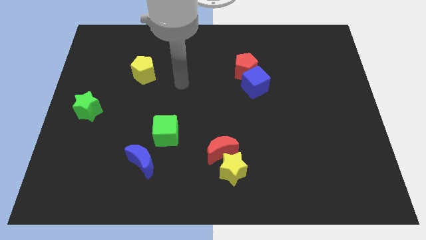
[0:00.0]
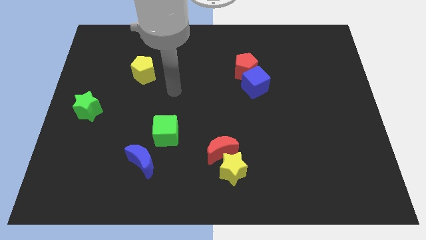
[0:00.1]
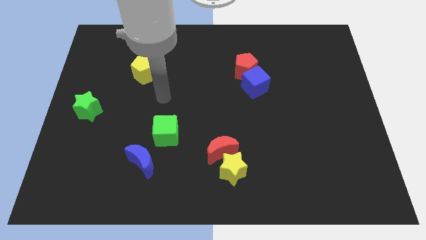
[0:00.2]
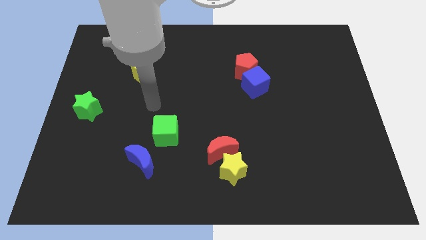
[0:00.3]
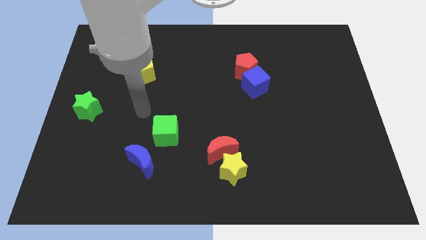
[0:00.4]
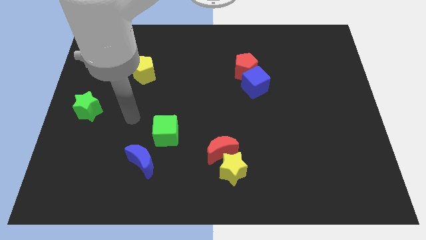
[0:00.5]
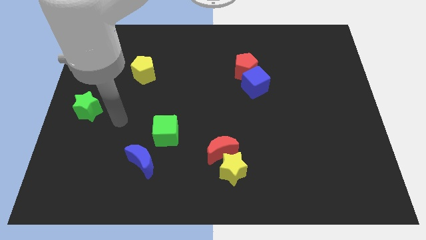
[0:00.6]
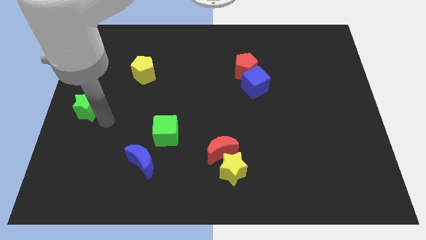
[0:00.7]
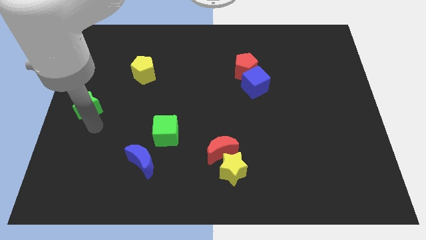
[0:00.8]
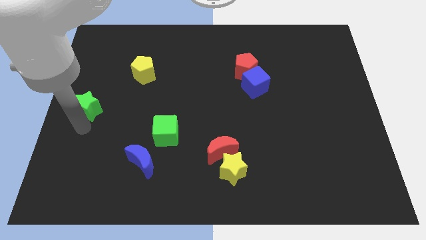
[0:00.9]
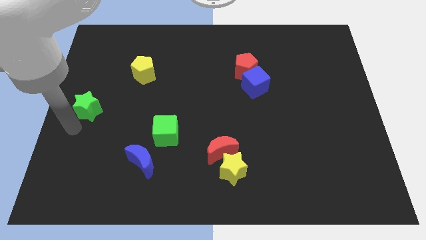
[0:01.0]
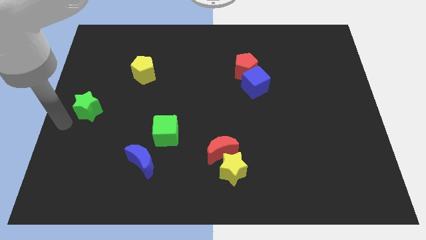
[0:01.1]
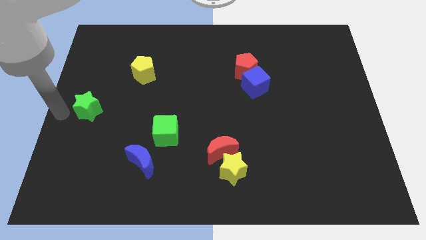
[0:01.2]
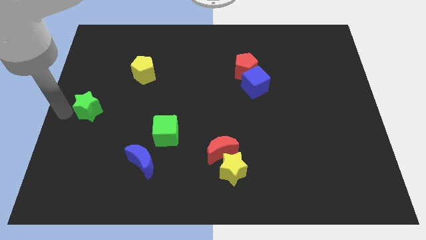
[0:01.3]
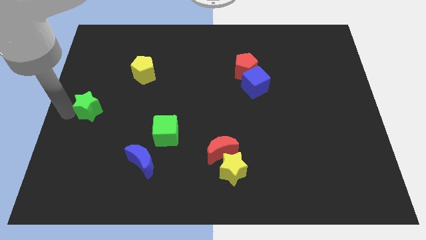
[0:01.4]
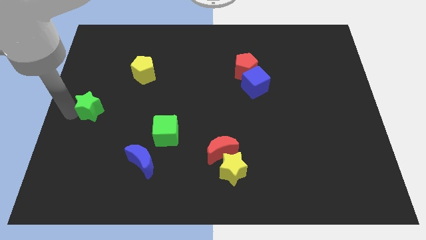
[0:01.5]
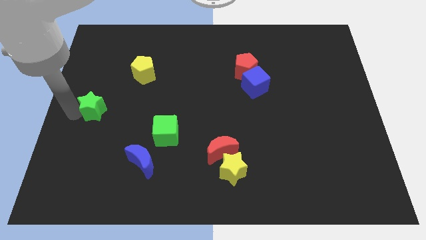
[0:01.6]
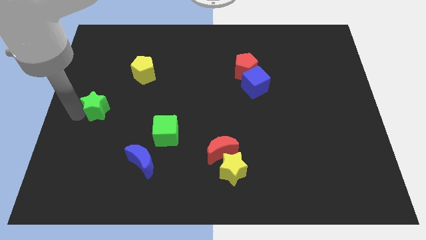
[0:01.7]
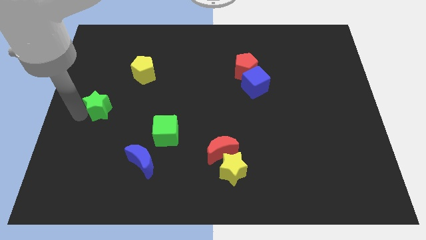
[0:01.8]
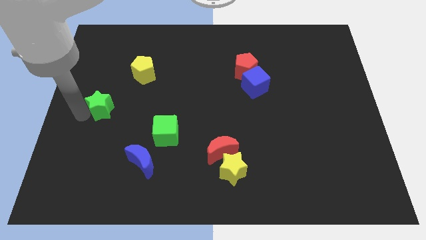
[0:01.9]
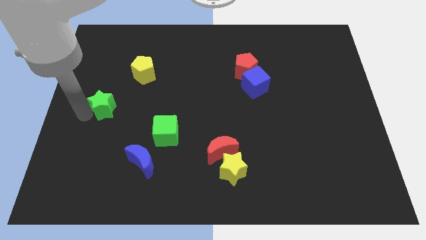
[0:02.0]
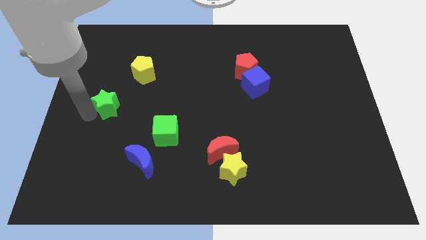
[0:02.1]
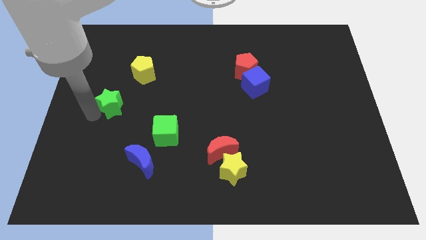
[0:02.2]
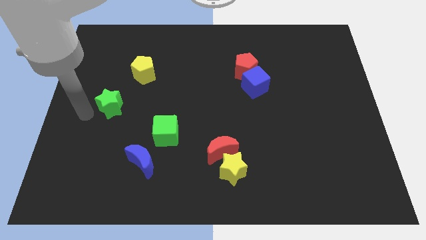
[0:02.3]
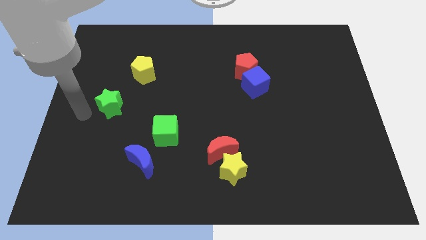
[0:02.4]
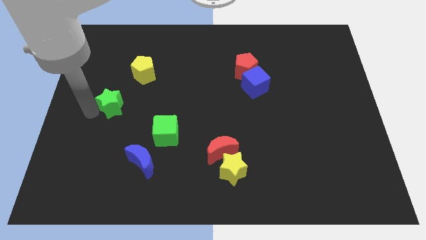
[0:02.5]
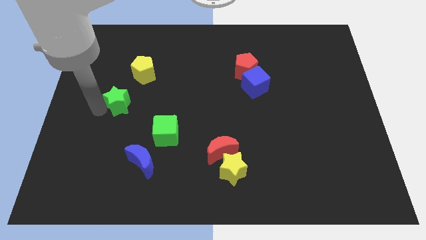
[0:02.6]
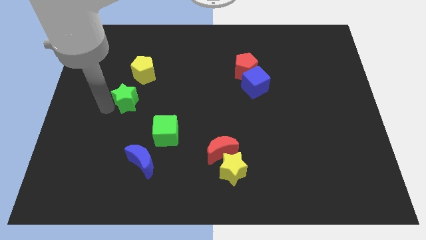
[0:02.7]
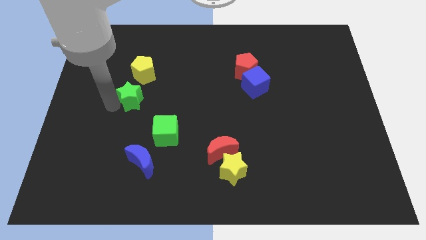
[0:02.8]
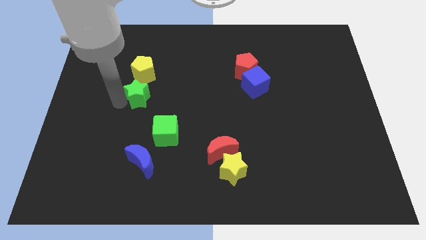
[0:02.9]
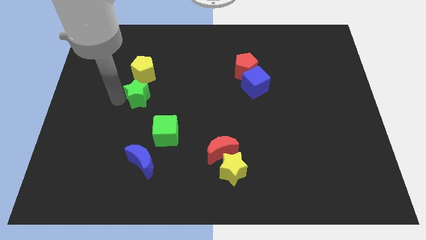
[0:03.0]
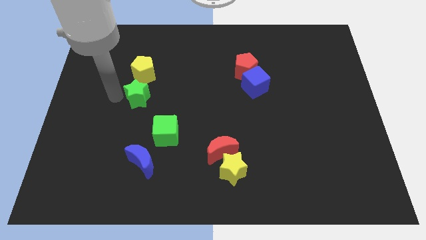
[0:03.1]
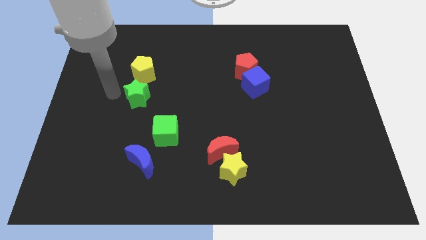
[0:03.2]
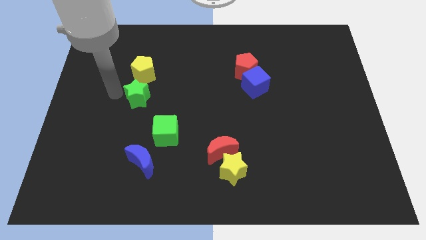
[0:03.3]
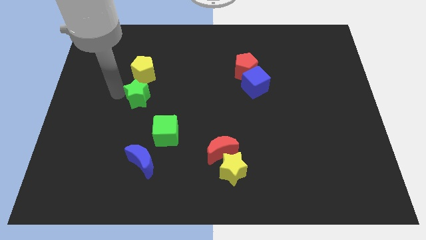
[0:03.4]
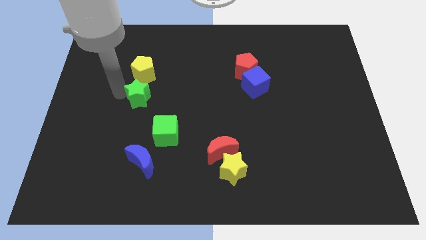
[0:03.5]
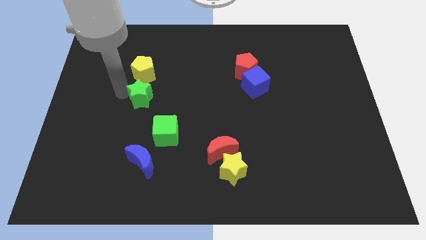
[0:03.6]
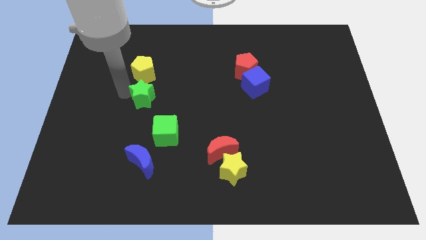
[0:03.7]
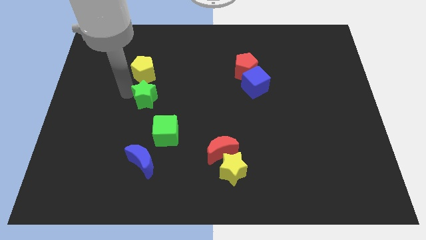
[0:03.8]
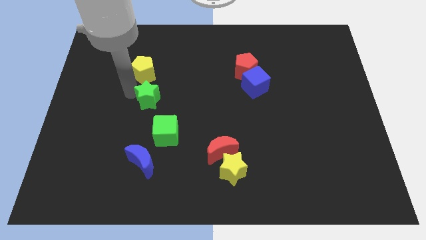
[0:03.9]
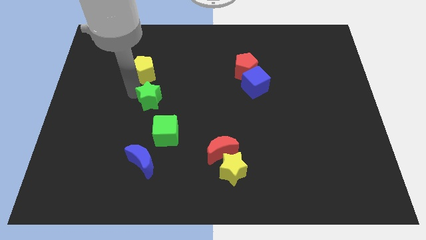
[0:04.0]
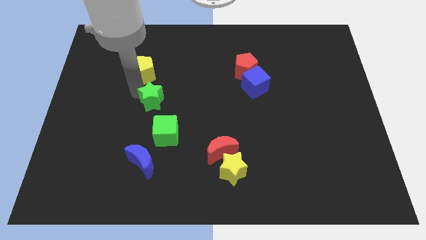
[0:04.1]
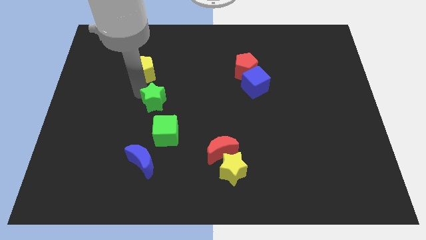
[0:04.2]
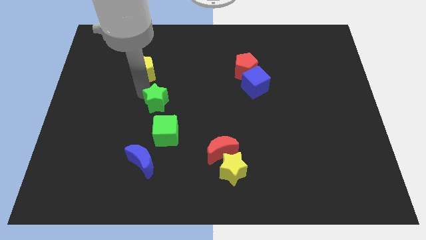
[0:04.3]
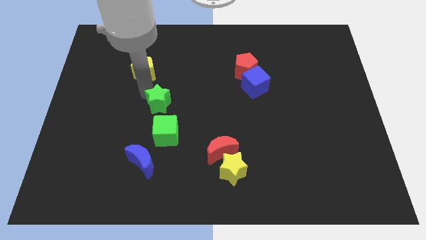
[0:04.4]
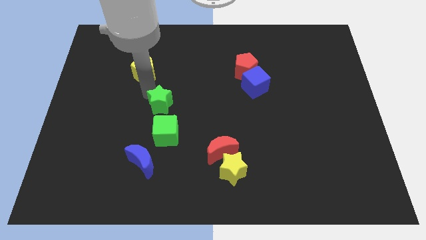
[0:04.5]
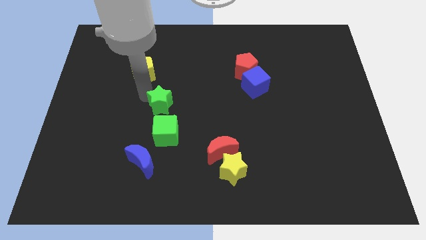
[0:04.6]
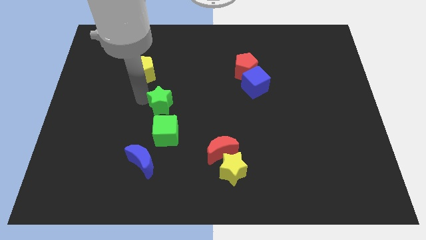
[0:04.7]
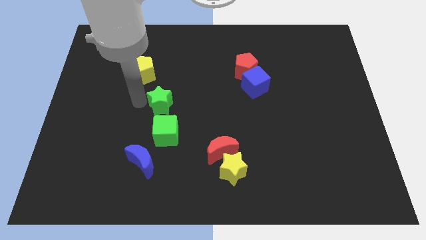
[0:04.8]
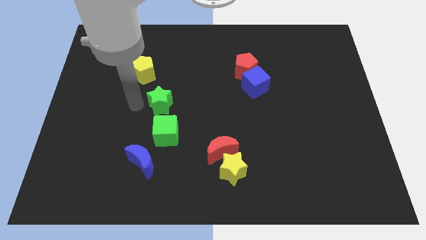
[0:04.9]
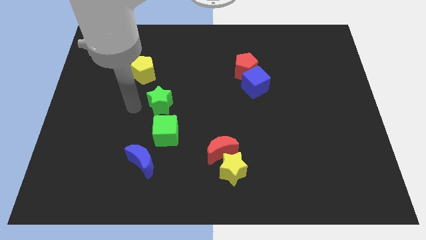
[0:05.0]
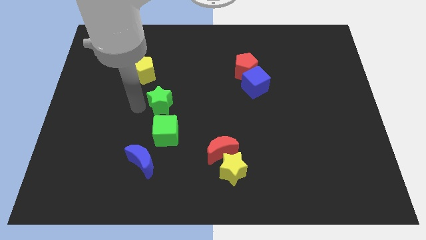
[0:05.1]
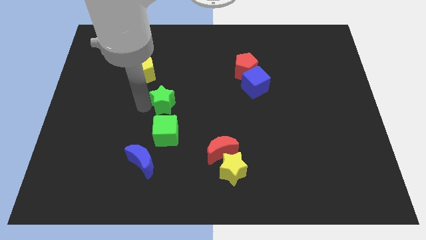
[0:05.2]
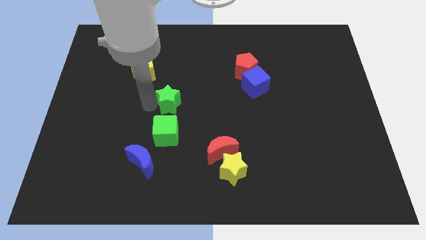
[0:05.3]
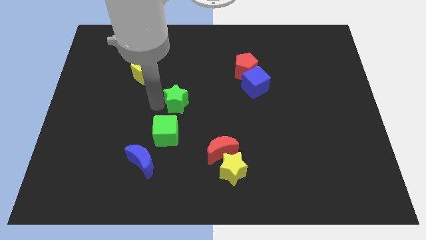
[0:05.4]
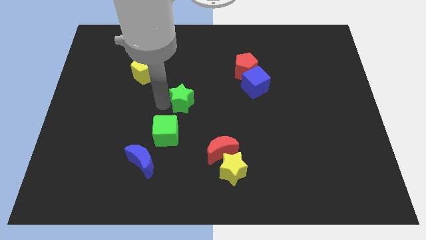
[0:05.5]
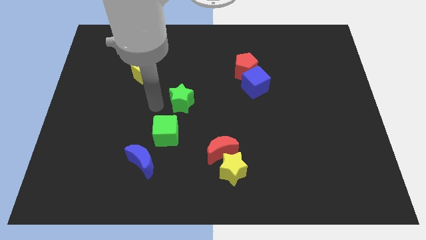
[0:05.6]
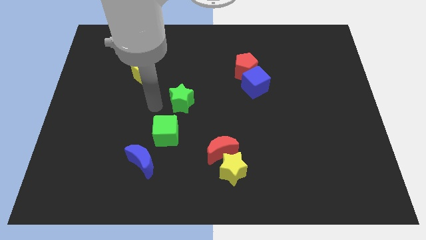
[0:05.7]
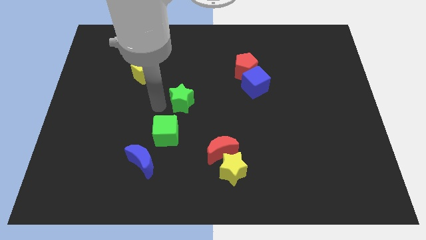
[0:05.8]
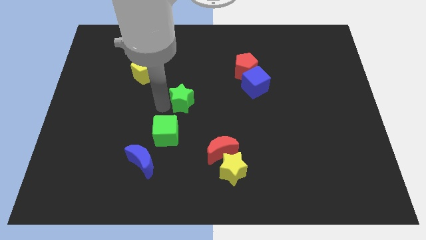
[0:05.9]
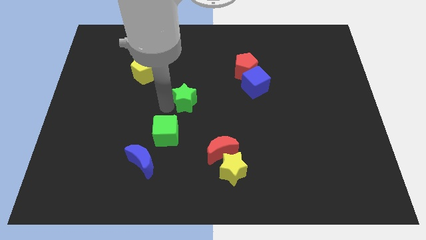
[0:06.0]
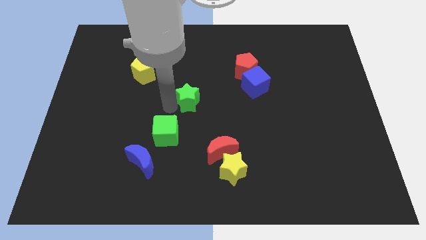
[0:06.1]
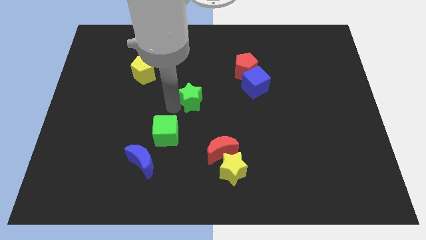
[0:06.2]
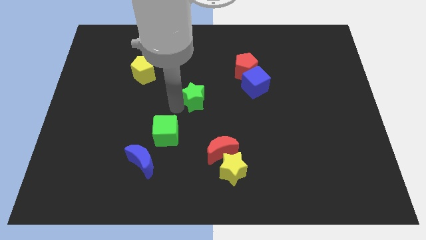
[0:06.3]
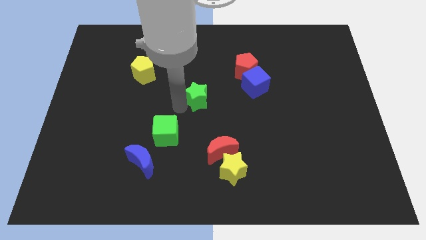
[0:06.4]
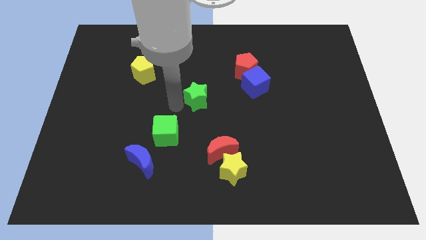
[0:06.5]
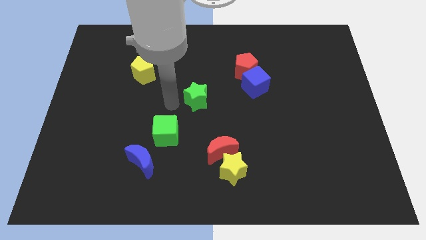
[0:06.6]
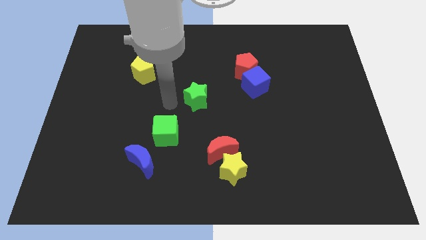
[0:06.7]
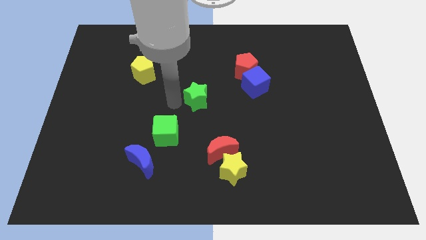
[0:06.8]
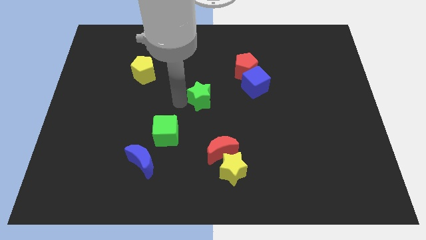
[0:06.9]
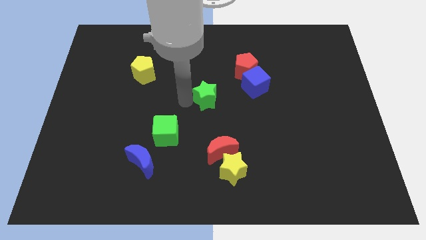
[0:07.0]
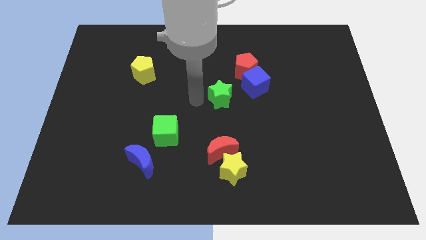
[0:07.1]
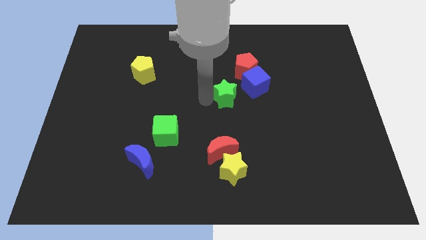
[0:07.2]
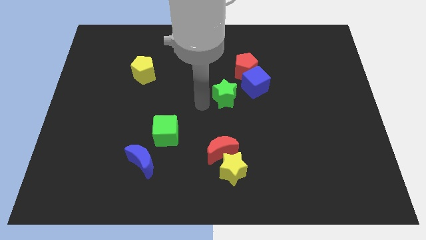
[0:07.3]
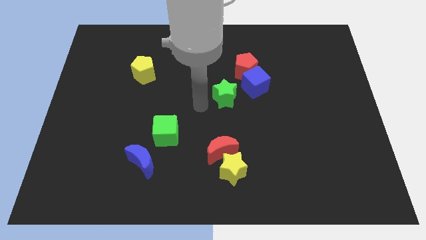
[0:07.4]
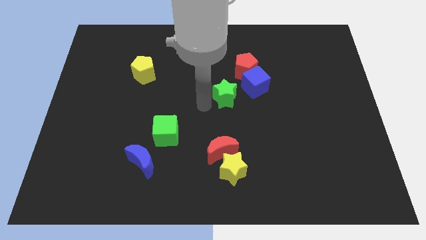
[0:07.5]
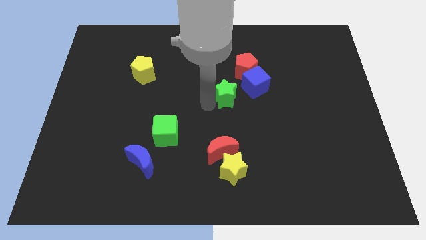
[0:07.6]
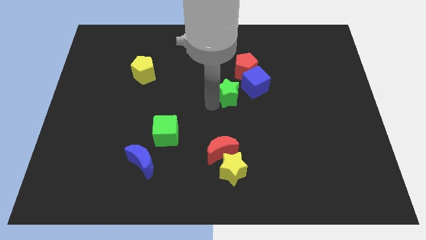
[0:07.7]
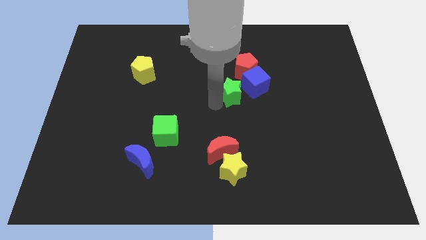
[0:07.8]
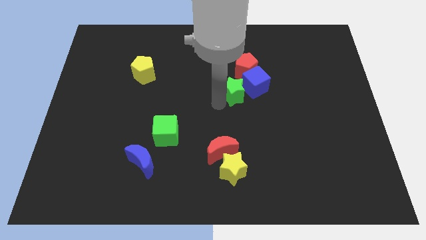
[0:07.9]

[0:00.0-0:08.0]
slide the green star to the blue cube
